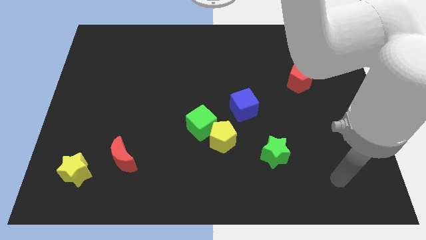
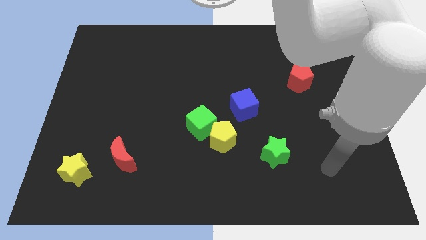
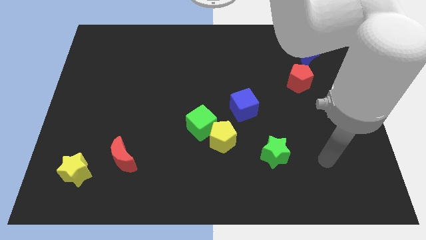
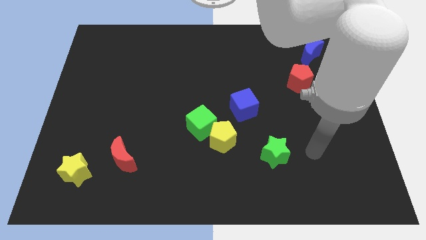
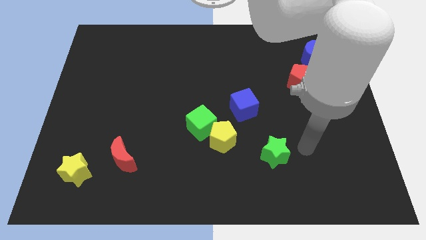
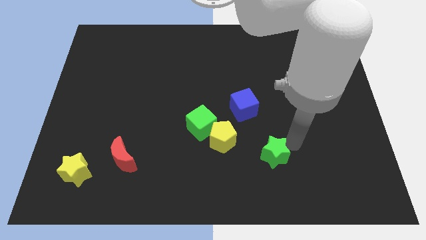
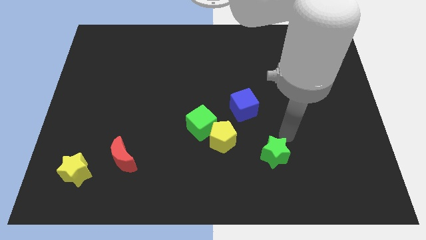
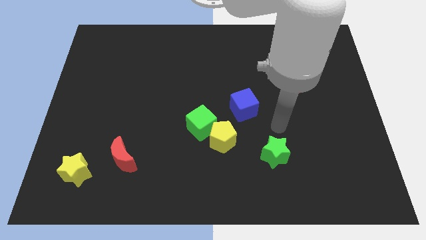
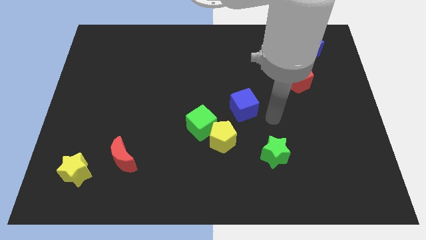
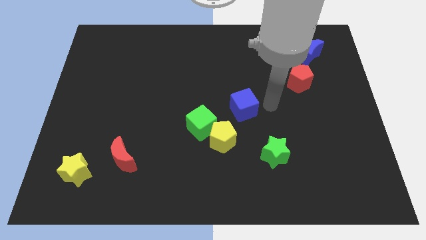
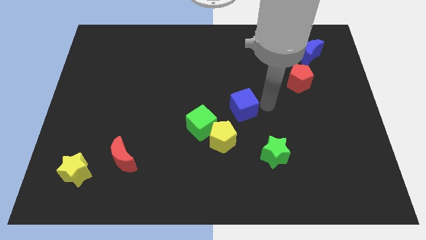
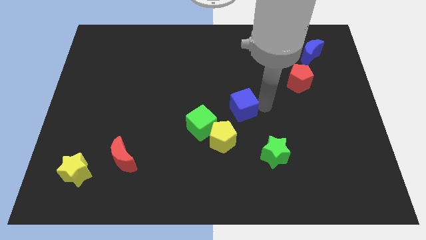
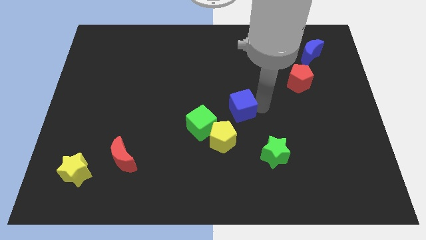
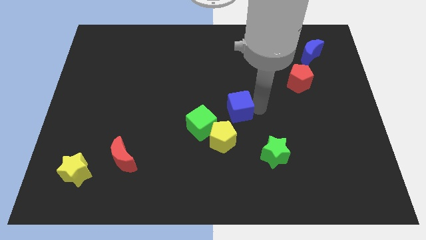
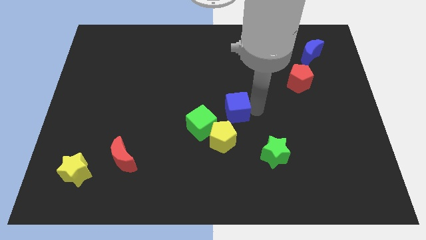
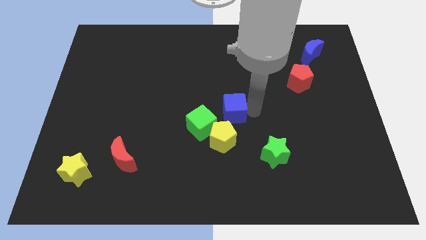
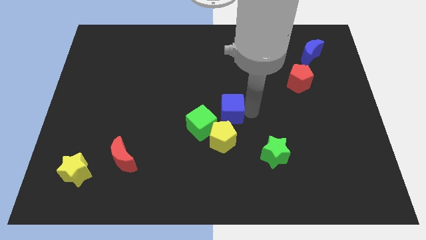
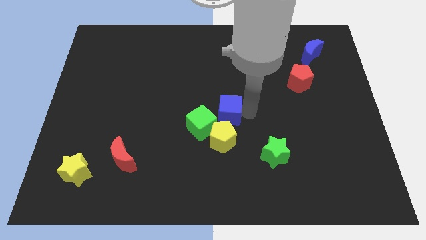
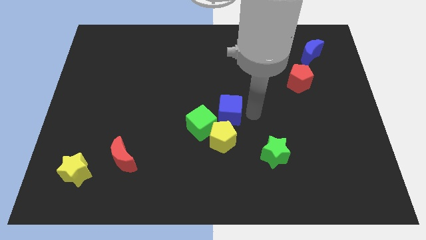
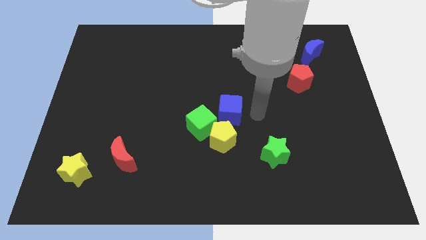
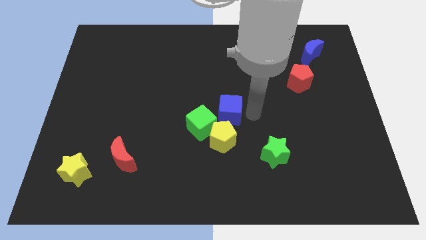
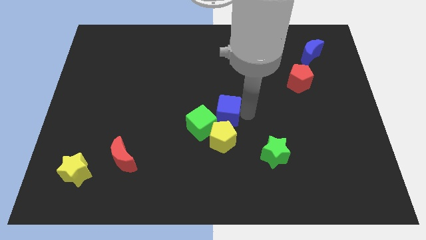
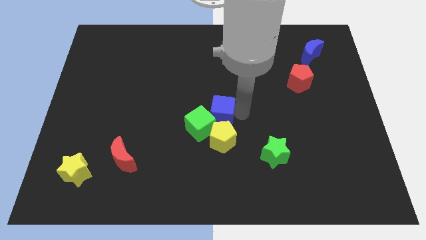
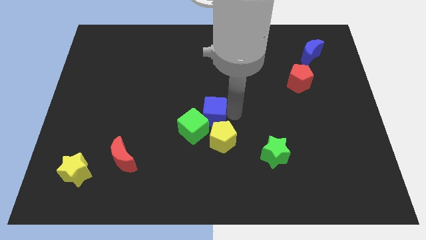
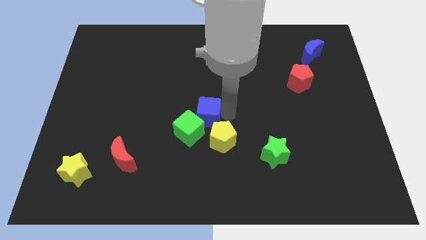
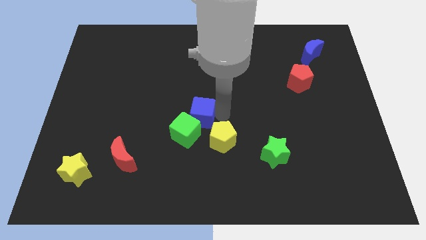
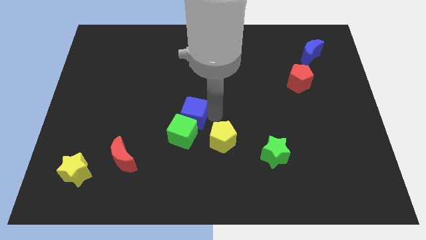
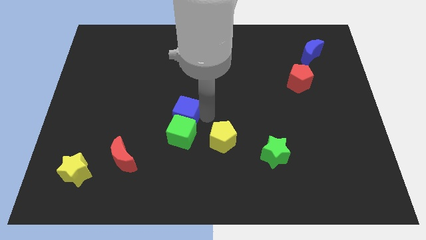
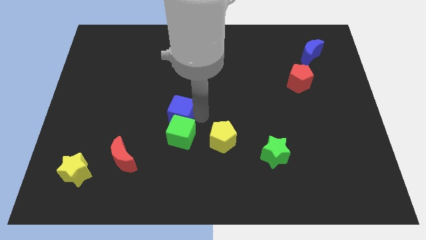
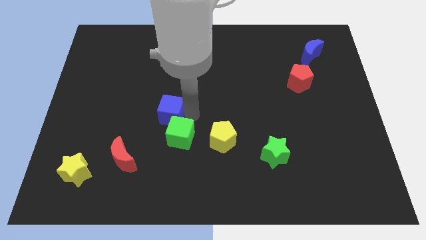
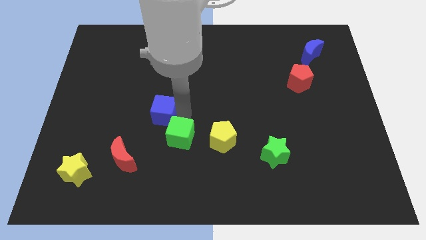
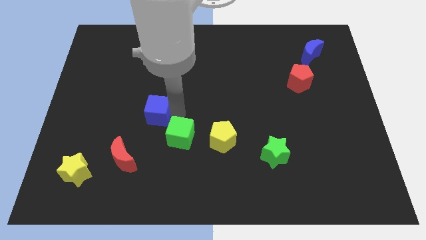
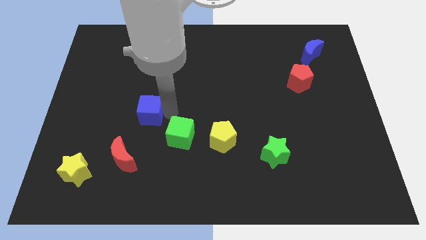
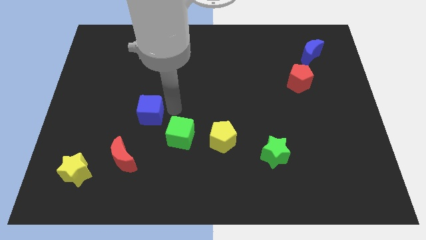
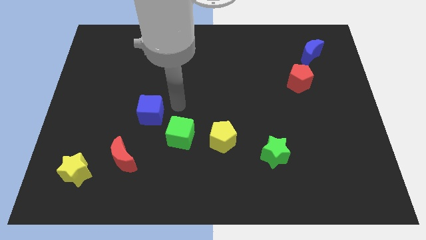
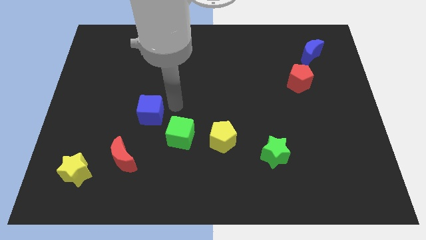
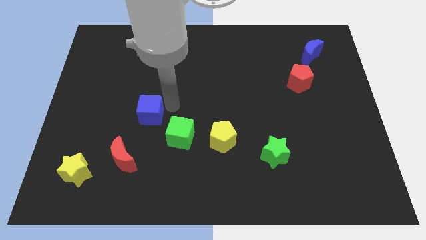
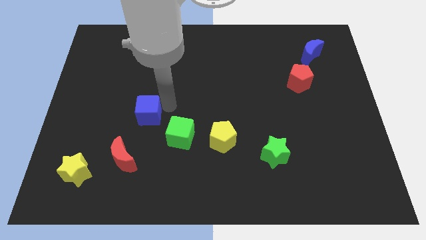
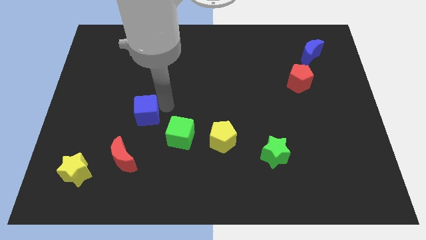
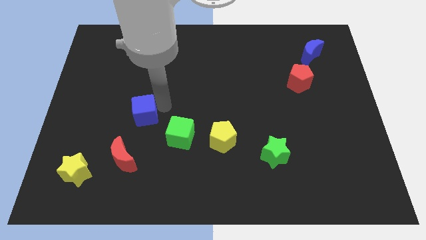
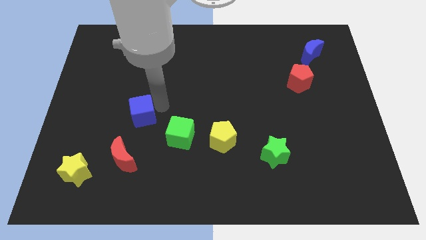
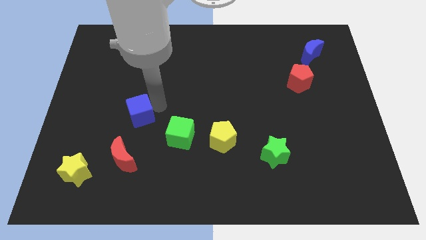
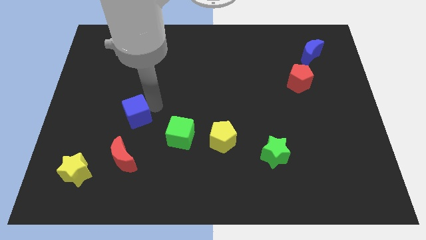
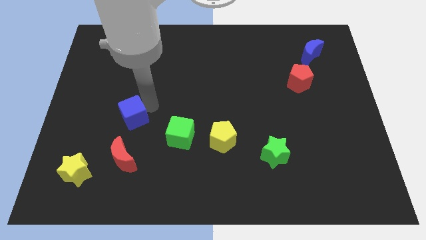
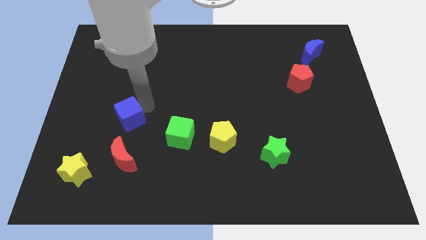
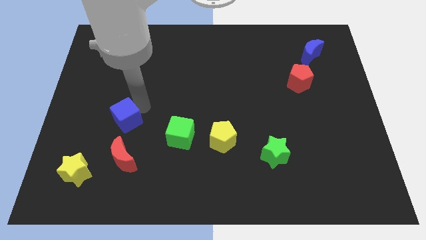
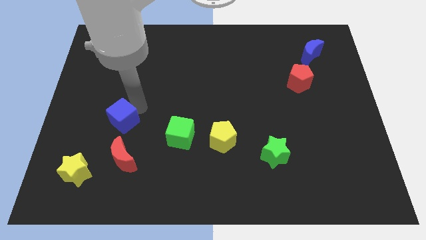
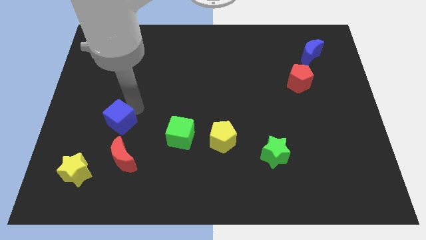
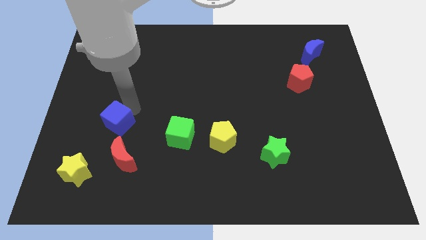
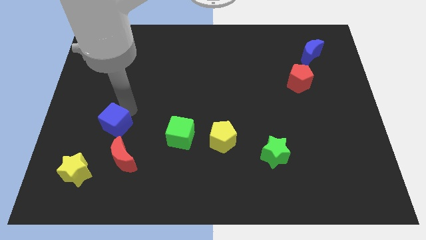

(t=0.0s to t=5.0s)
move the blue cube to the top left side of the red moon

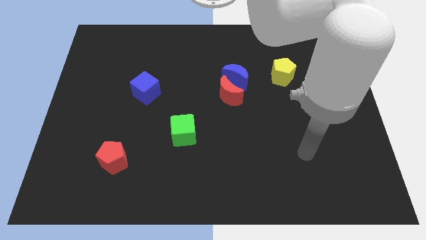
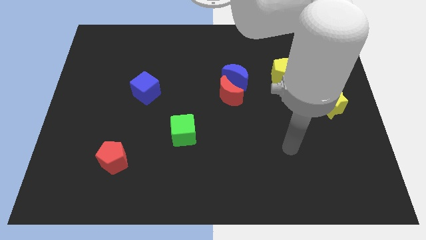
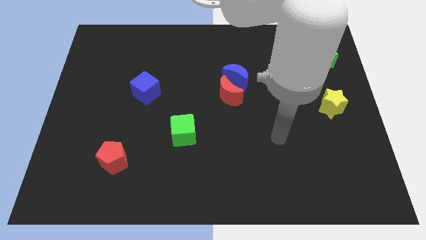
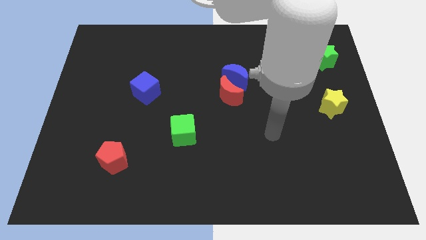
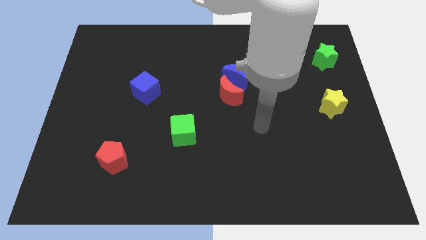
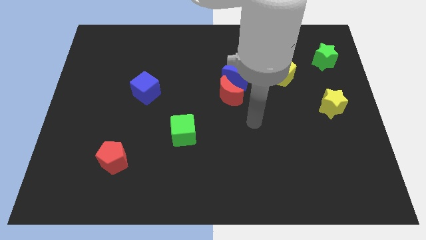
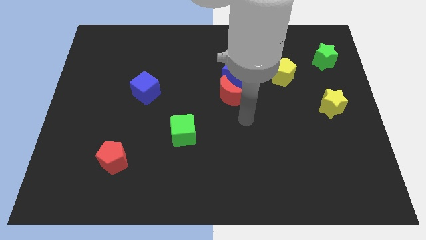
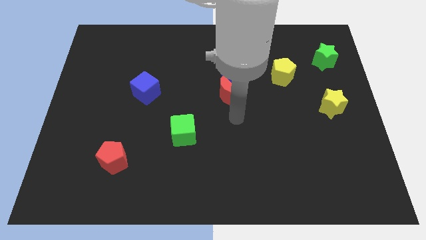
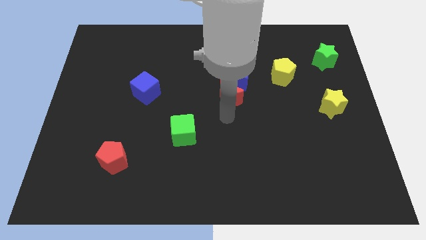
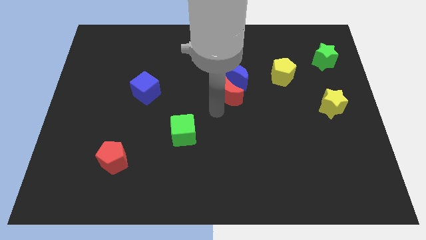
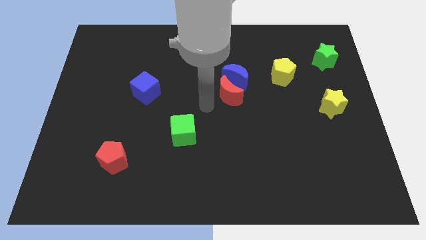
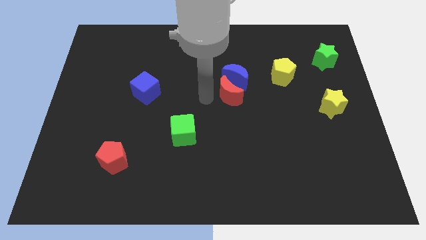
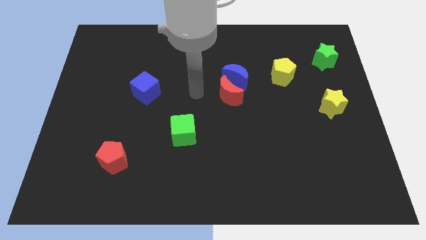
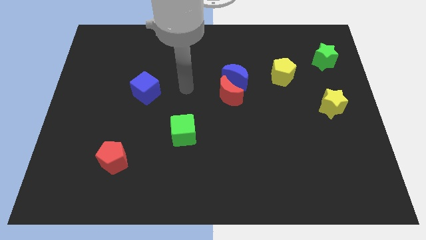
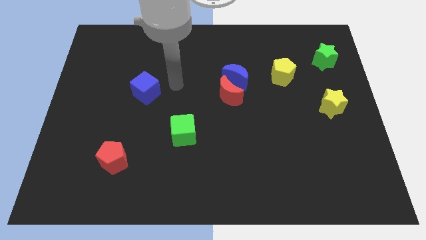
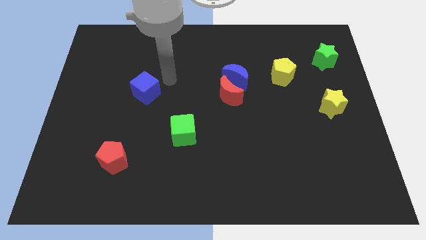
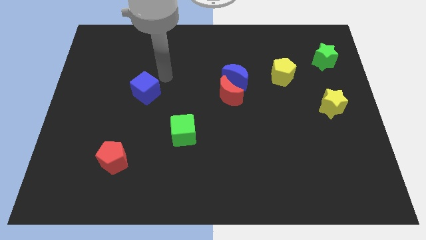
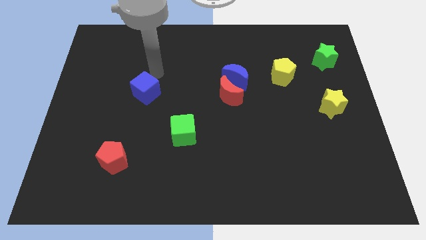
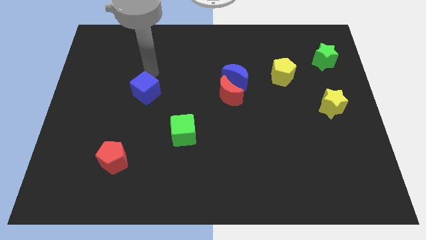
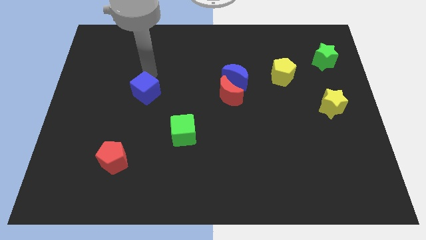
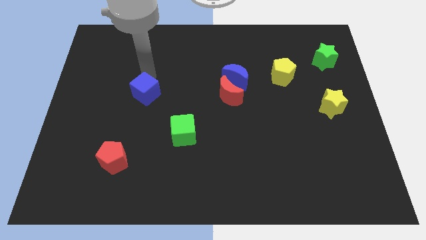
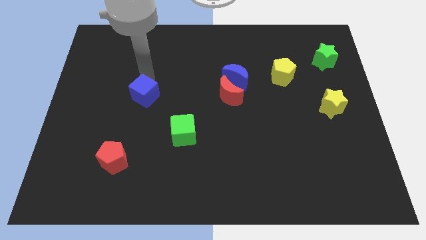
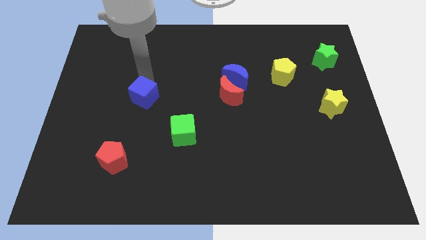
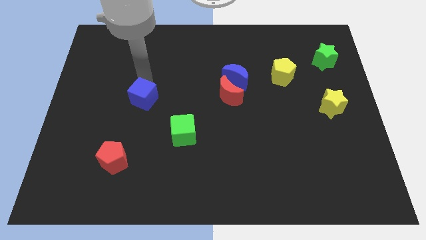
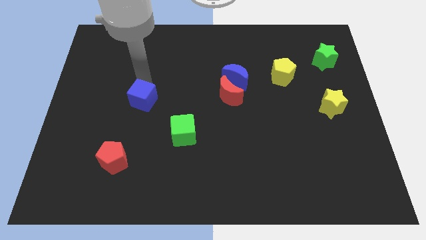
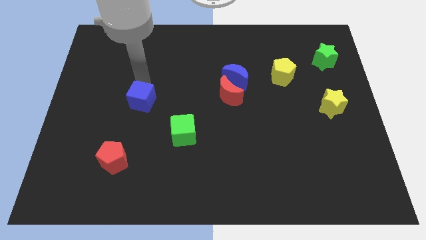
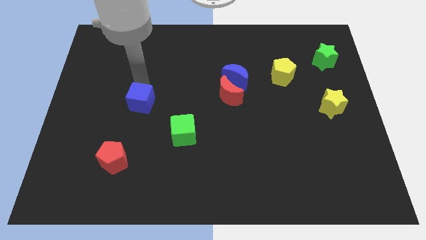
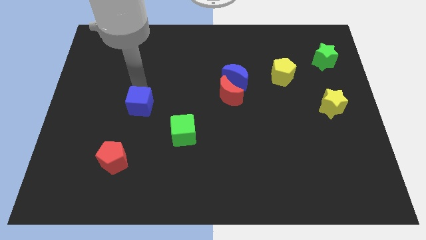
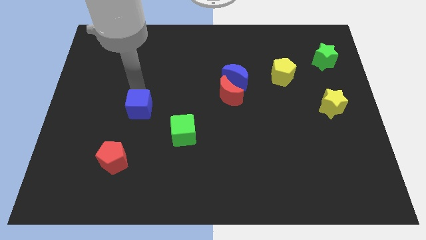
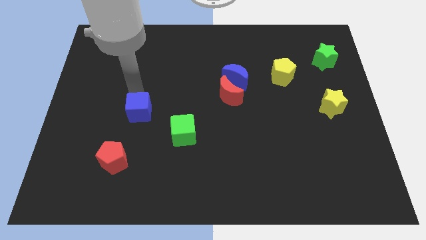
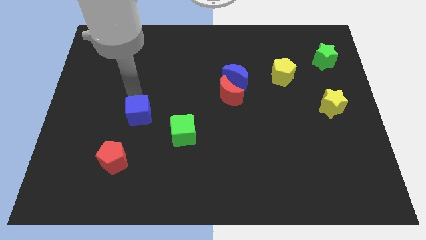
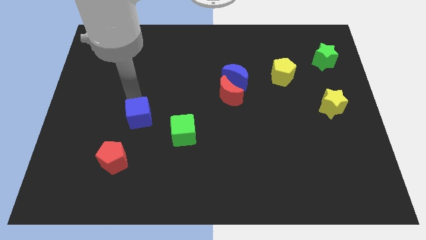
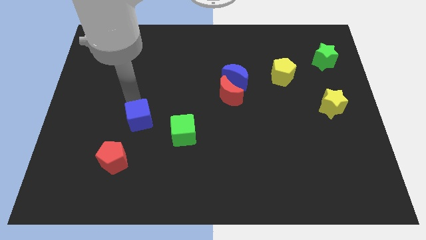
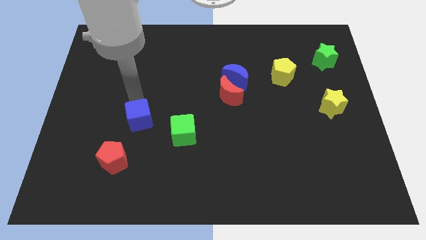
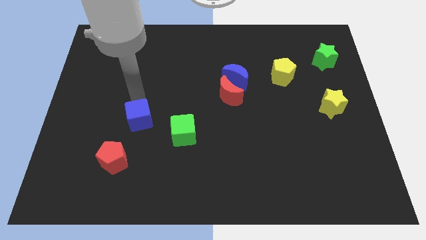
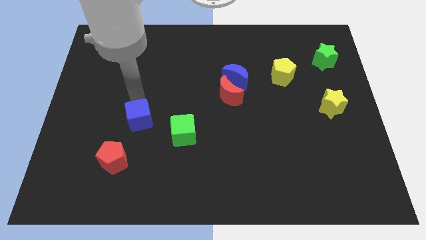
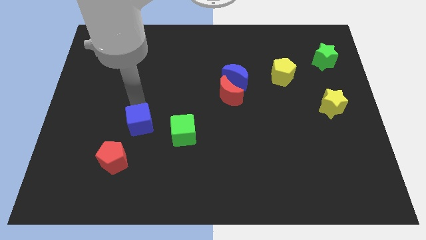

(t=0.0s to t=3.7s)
push the blue cube to the top right of the red pentagon
